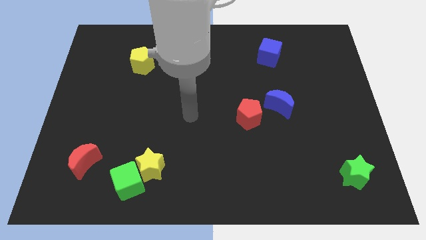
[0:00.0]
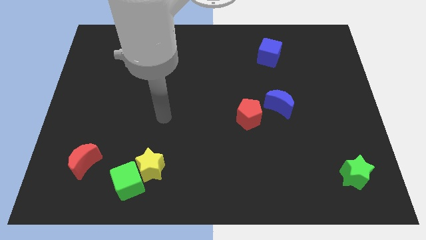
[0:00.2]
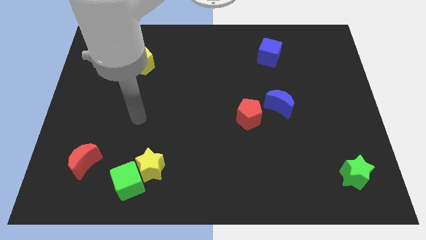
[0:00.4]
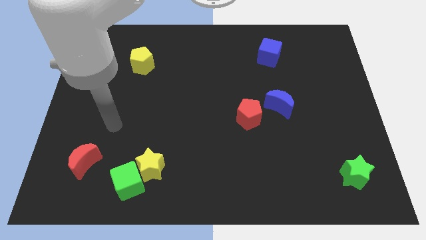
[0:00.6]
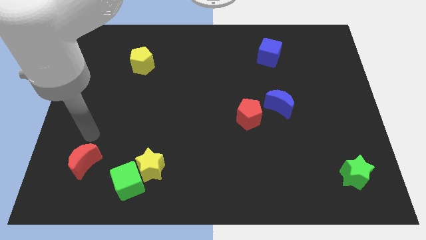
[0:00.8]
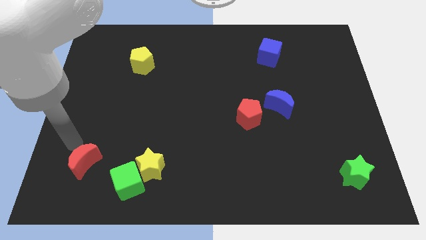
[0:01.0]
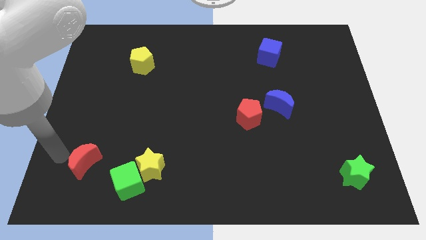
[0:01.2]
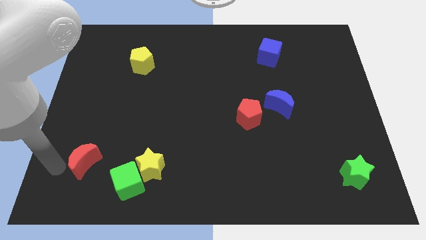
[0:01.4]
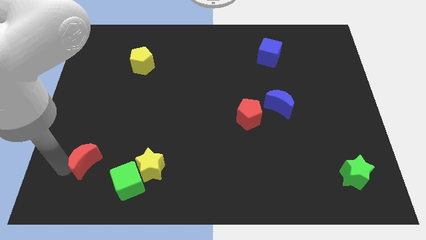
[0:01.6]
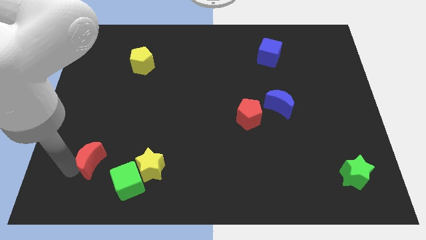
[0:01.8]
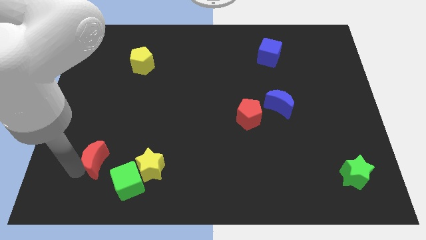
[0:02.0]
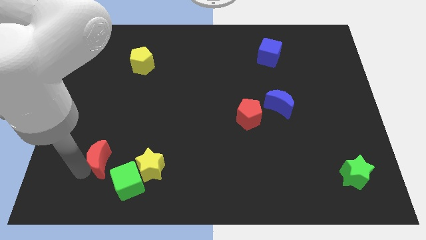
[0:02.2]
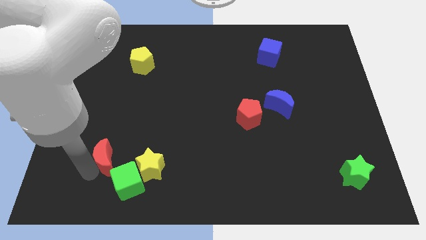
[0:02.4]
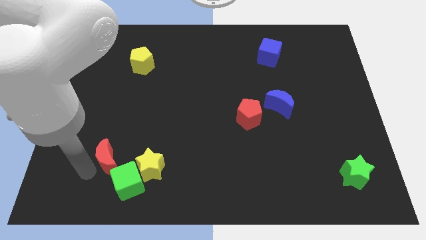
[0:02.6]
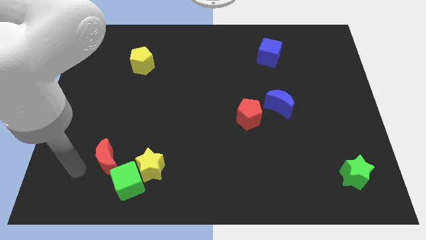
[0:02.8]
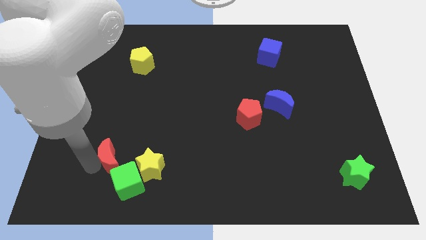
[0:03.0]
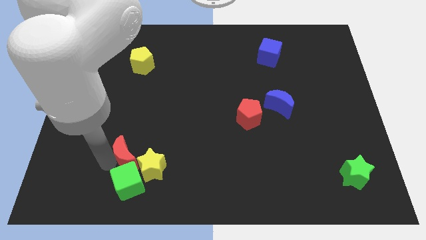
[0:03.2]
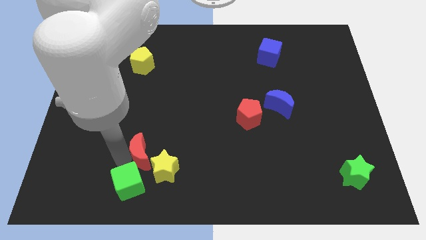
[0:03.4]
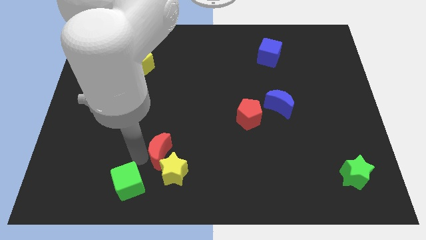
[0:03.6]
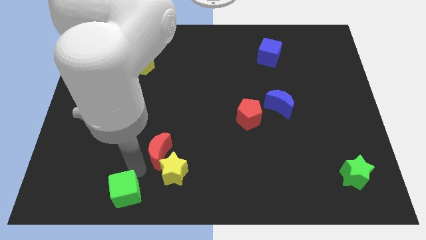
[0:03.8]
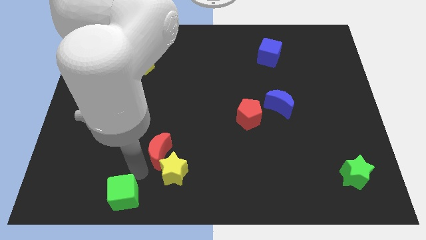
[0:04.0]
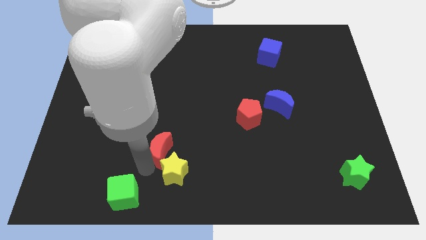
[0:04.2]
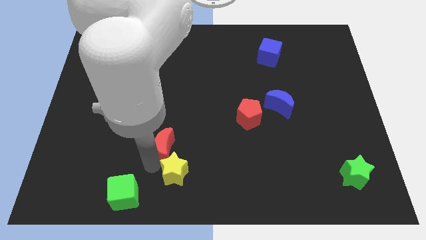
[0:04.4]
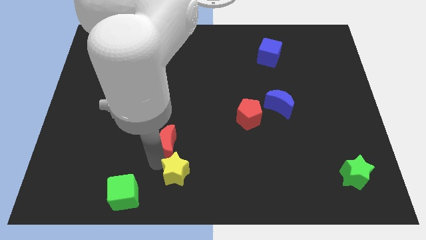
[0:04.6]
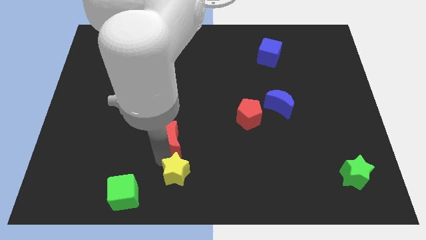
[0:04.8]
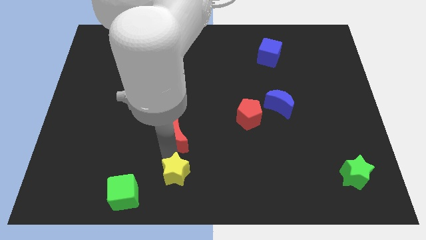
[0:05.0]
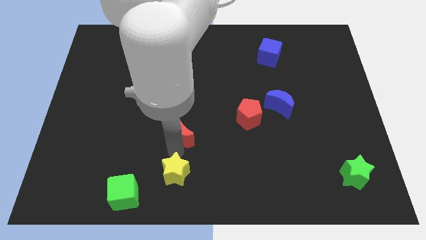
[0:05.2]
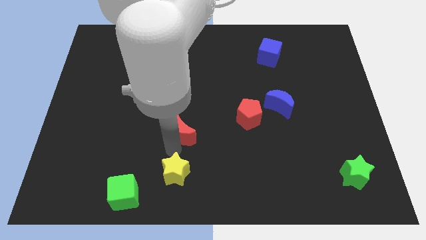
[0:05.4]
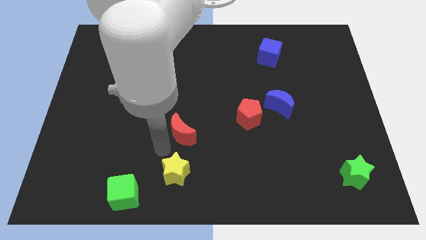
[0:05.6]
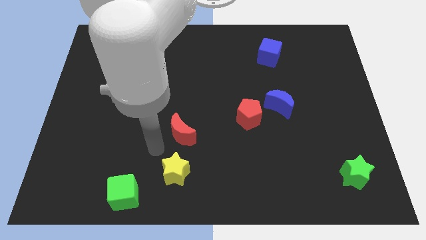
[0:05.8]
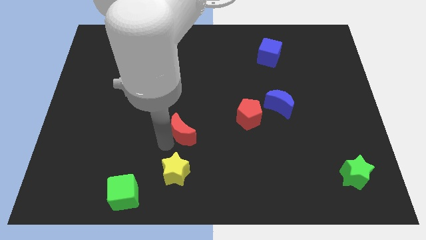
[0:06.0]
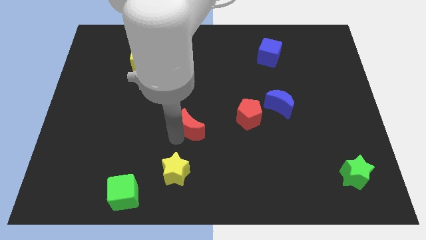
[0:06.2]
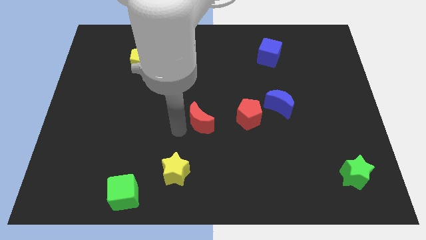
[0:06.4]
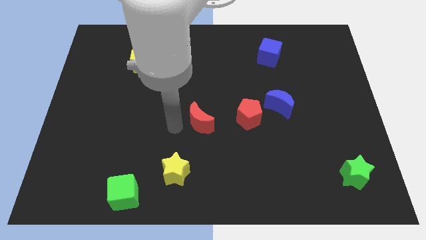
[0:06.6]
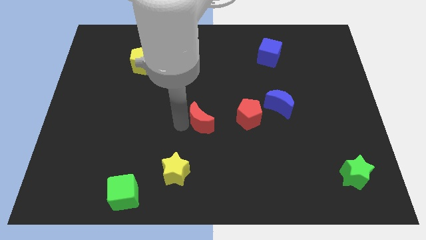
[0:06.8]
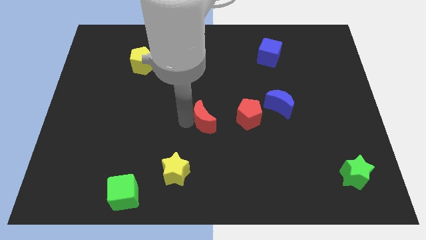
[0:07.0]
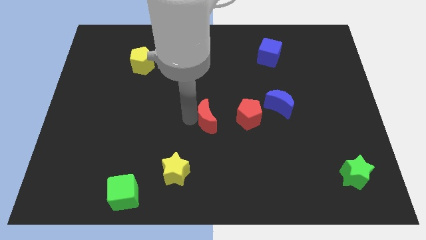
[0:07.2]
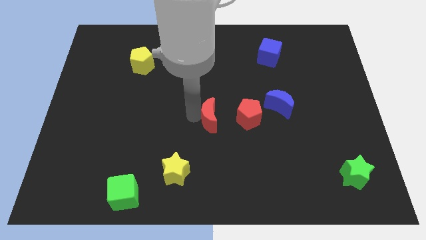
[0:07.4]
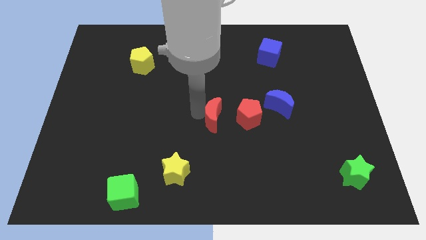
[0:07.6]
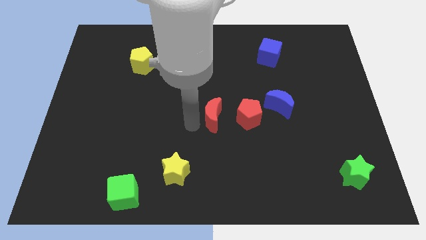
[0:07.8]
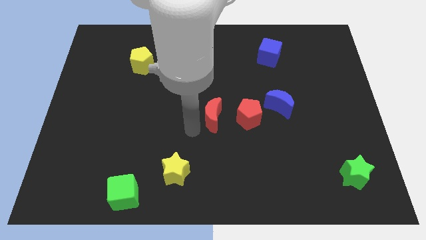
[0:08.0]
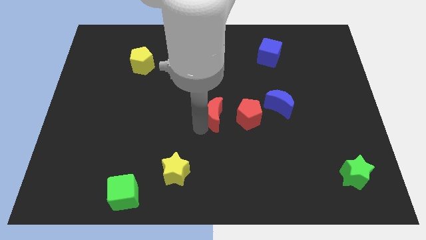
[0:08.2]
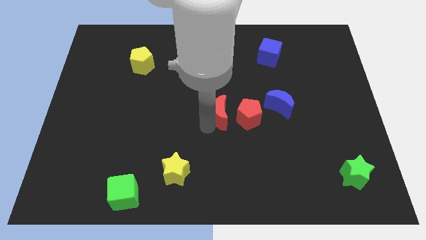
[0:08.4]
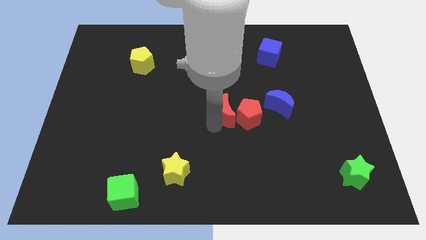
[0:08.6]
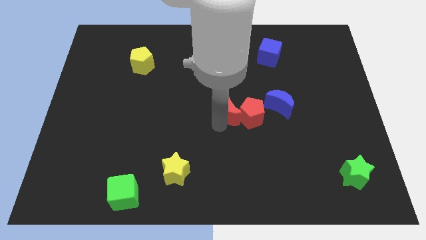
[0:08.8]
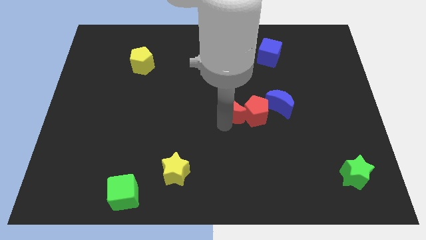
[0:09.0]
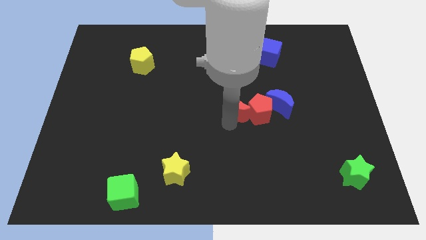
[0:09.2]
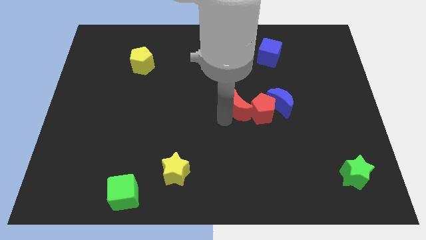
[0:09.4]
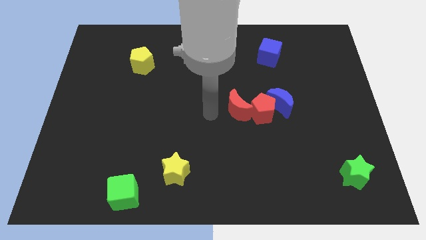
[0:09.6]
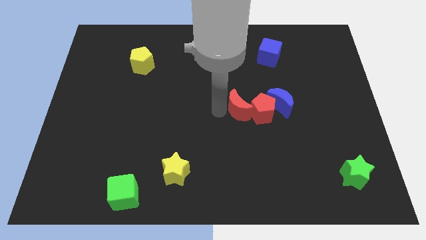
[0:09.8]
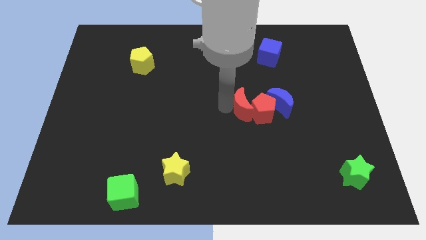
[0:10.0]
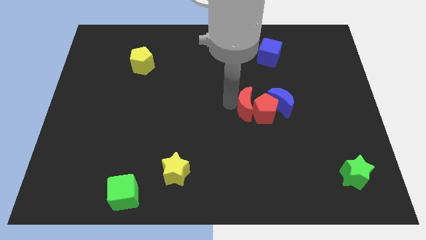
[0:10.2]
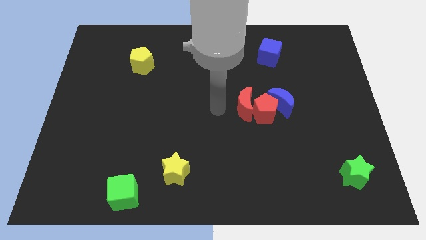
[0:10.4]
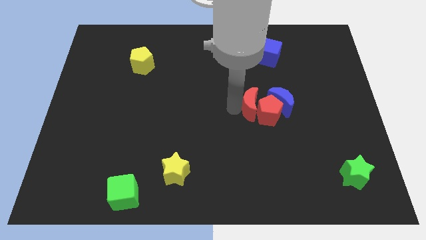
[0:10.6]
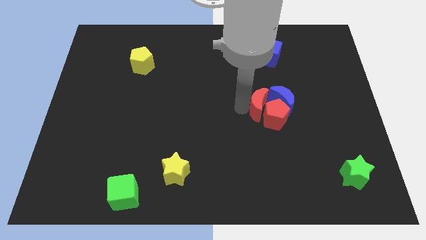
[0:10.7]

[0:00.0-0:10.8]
slide the red moon towards the blue moon
